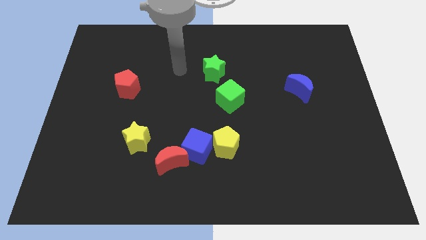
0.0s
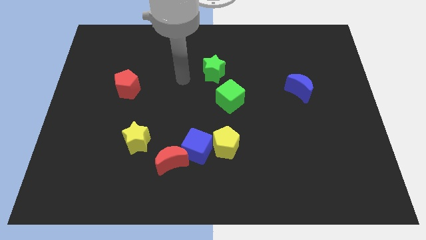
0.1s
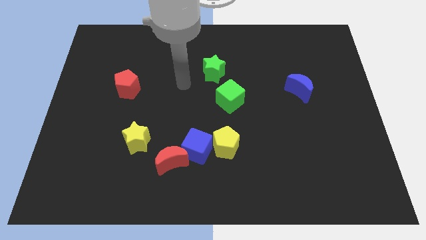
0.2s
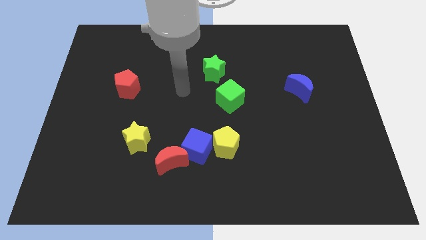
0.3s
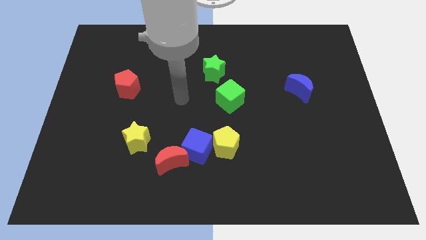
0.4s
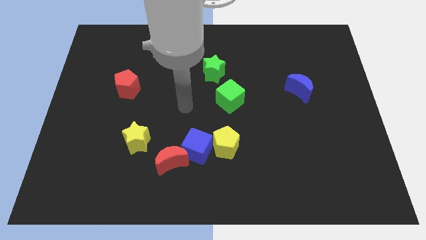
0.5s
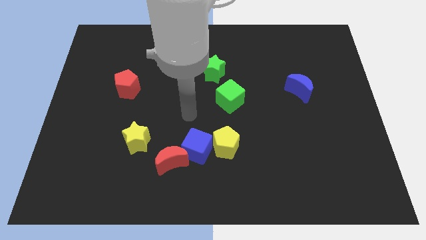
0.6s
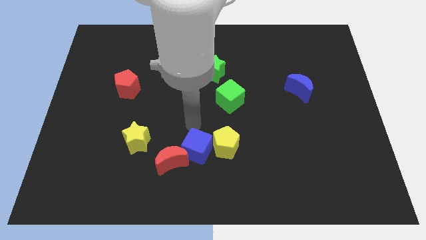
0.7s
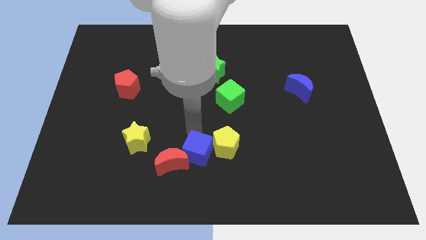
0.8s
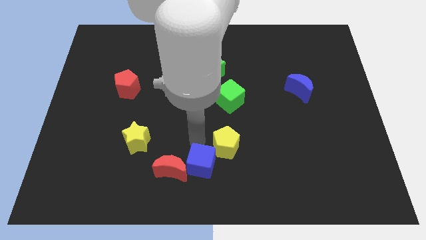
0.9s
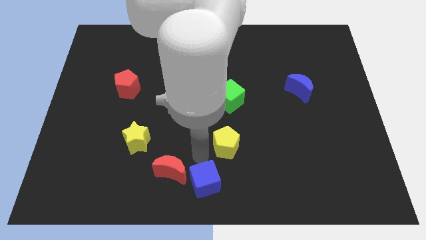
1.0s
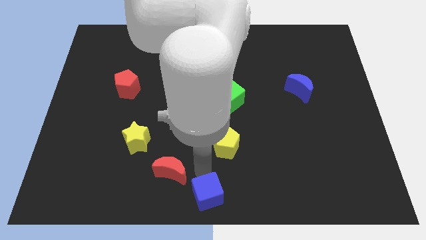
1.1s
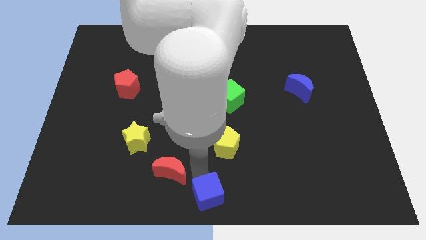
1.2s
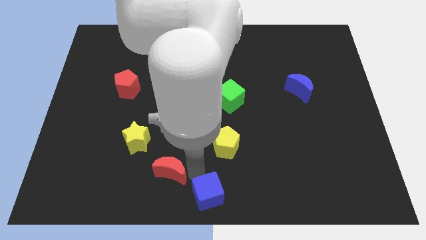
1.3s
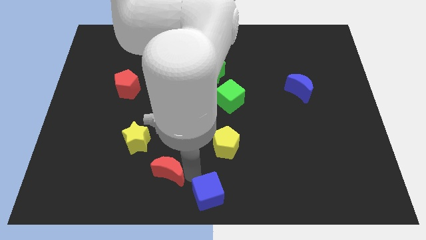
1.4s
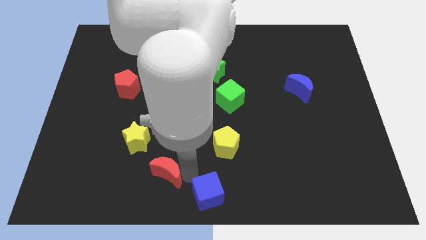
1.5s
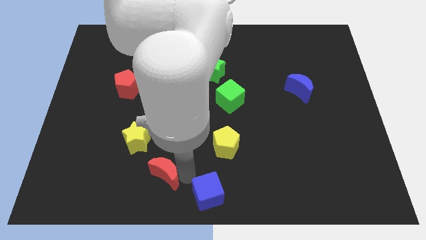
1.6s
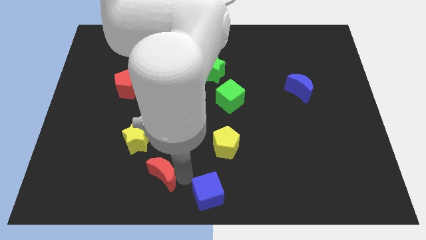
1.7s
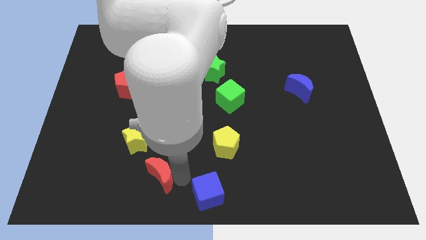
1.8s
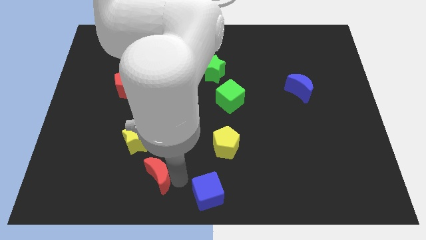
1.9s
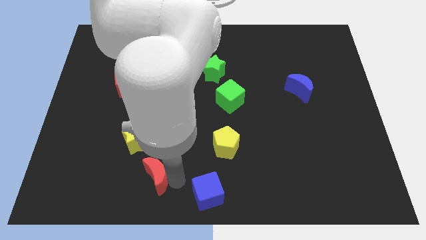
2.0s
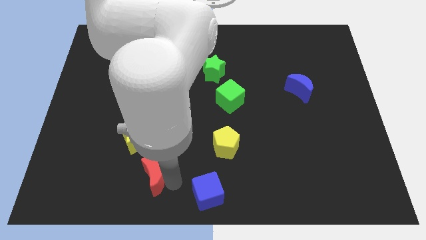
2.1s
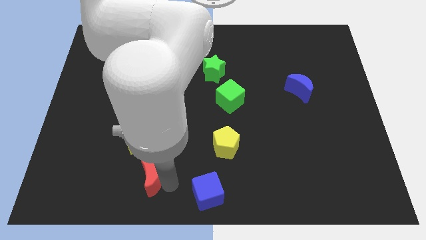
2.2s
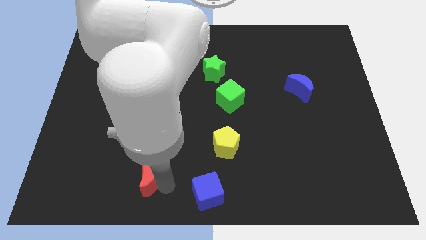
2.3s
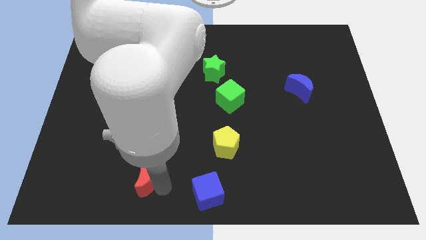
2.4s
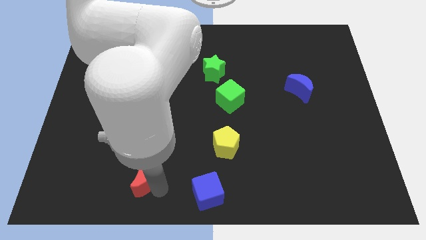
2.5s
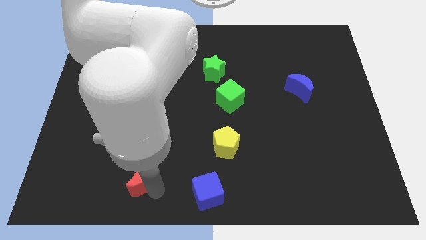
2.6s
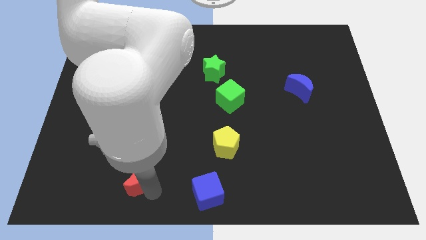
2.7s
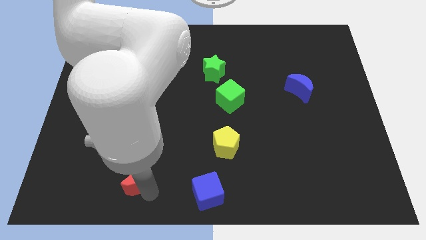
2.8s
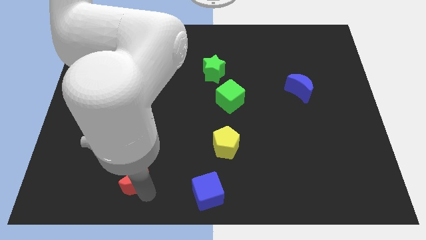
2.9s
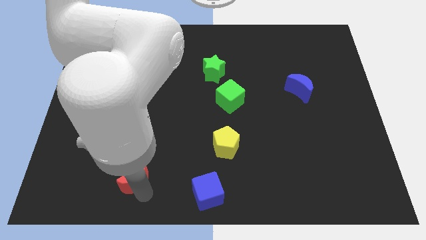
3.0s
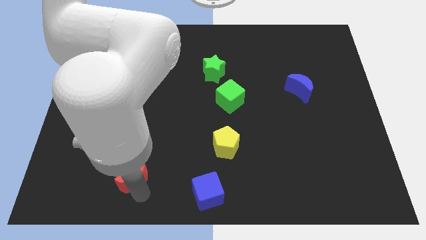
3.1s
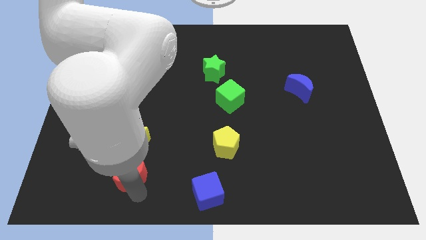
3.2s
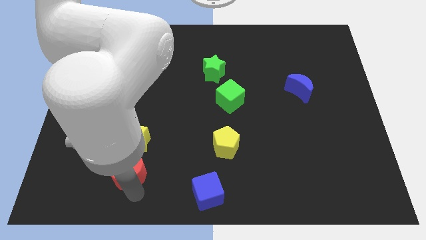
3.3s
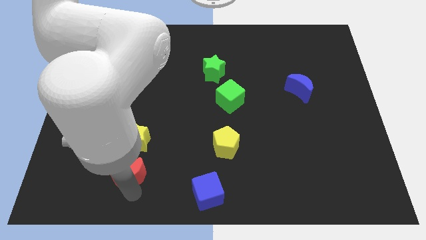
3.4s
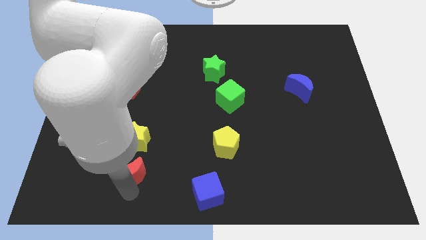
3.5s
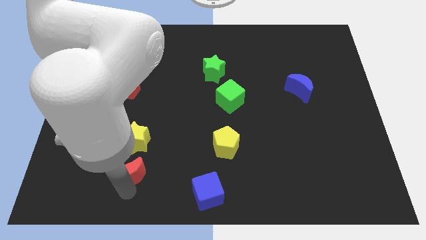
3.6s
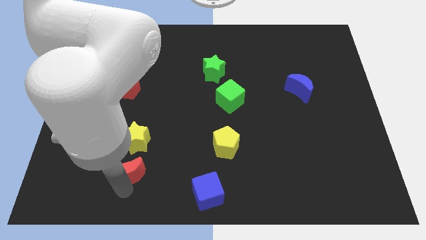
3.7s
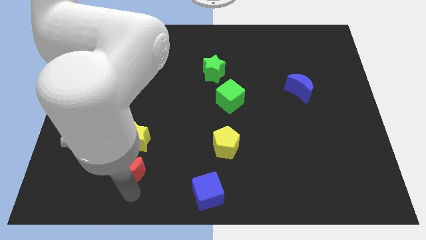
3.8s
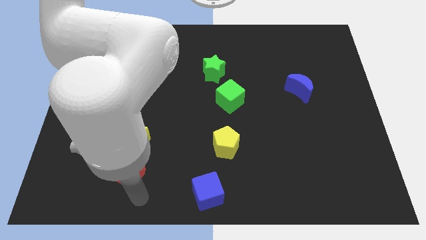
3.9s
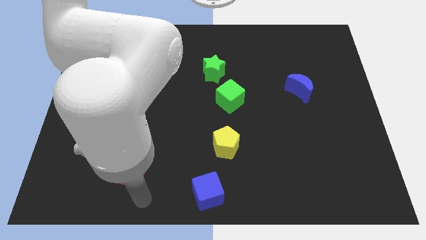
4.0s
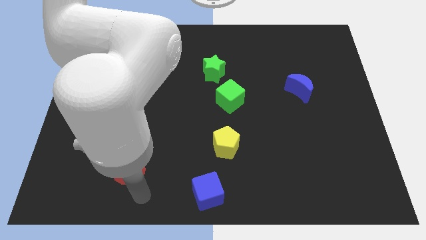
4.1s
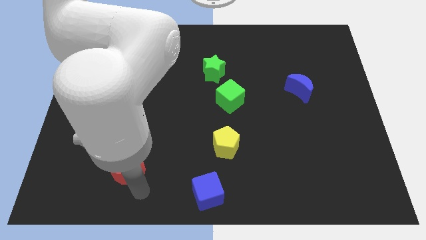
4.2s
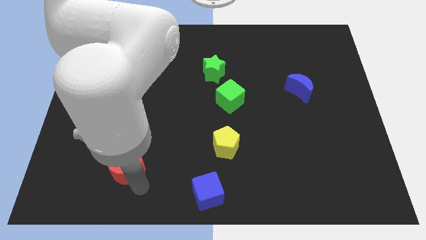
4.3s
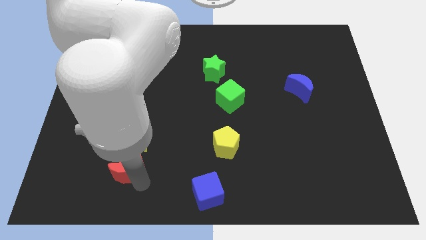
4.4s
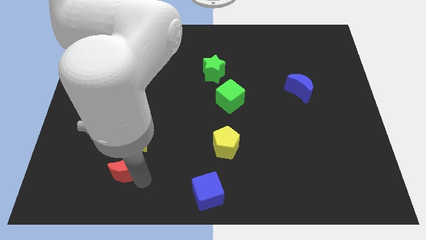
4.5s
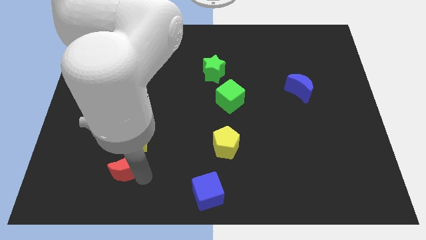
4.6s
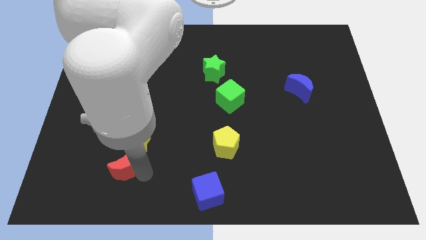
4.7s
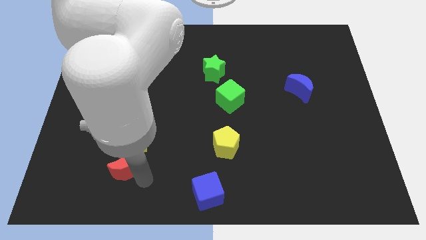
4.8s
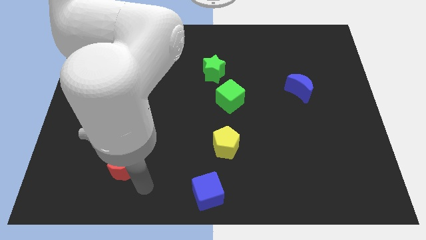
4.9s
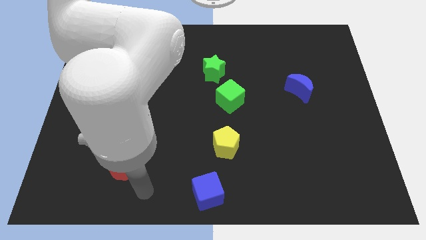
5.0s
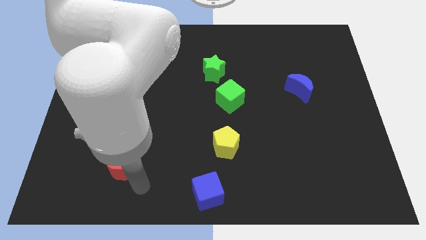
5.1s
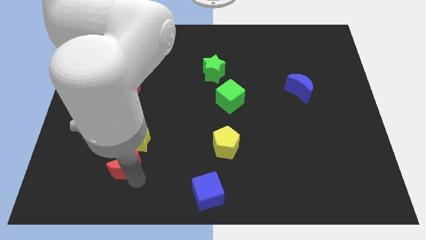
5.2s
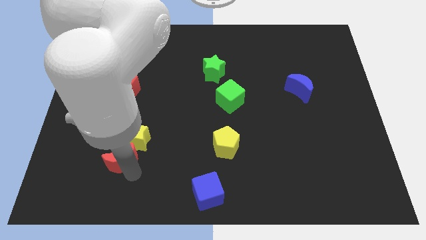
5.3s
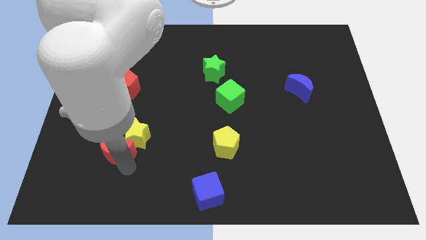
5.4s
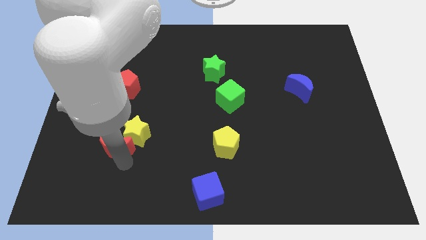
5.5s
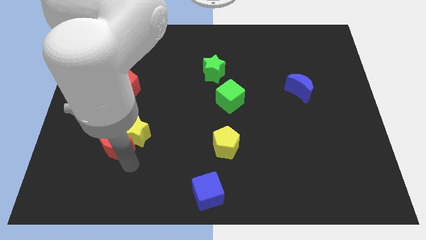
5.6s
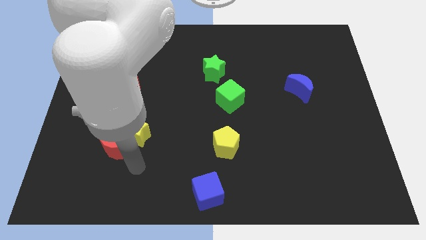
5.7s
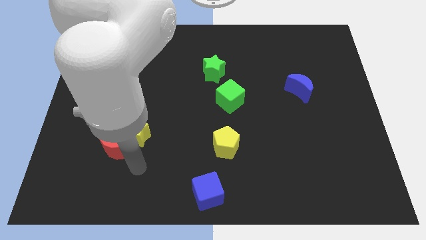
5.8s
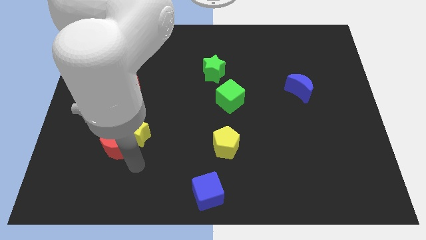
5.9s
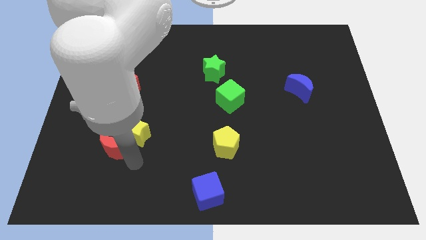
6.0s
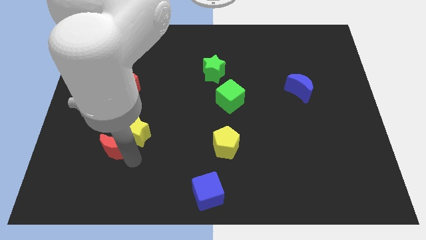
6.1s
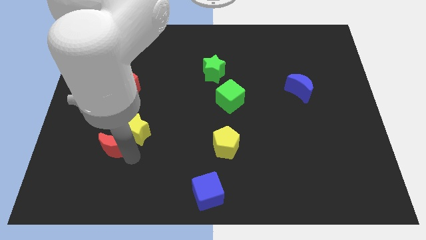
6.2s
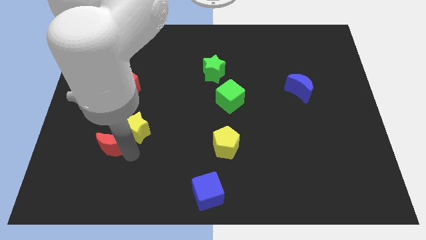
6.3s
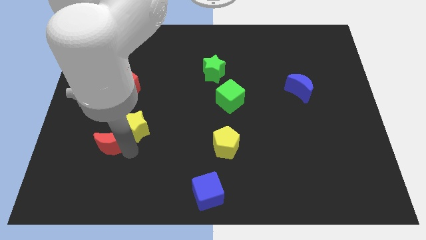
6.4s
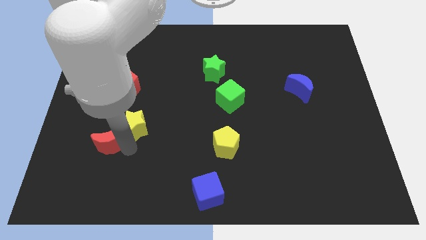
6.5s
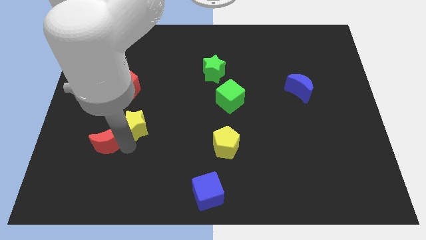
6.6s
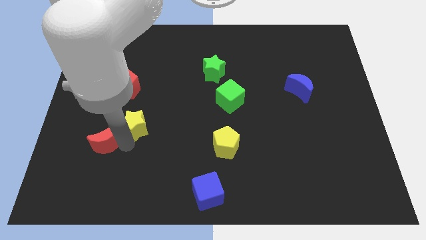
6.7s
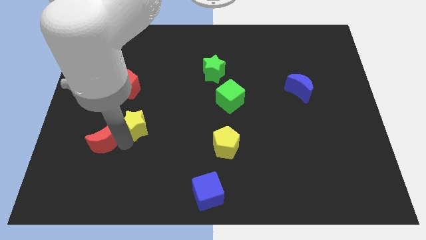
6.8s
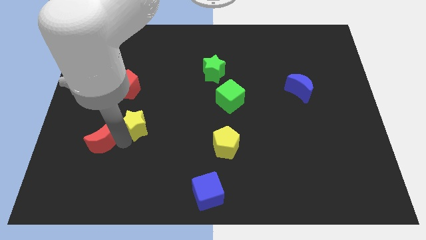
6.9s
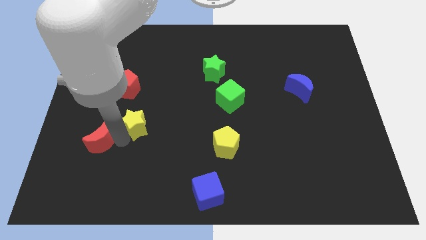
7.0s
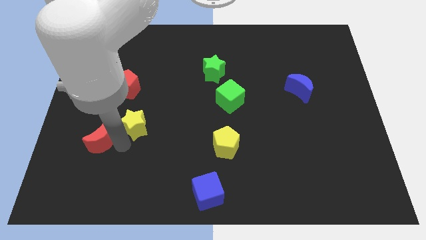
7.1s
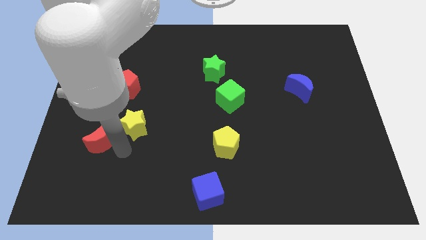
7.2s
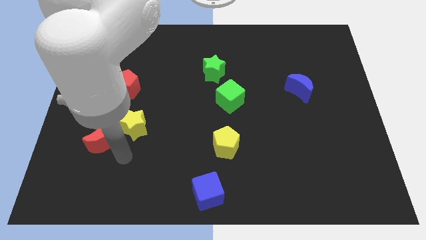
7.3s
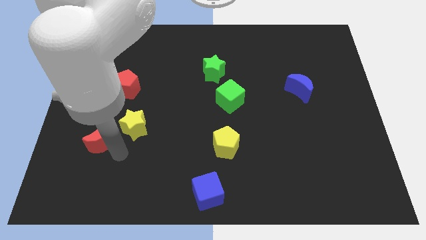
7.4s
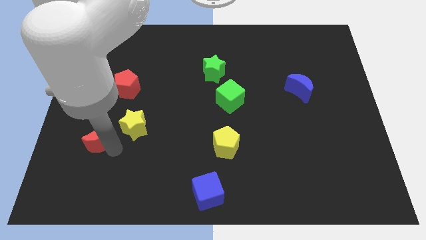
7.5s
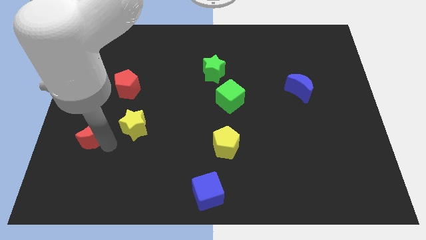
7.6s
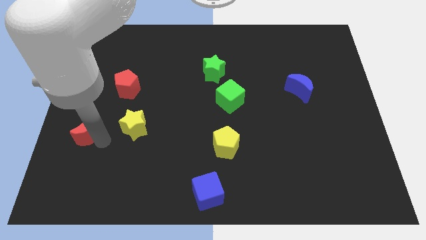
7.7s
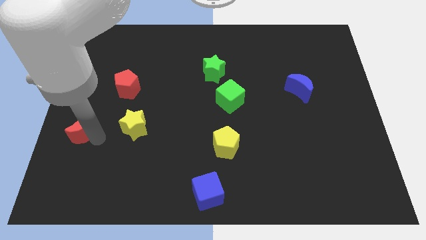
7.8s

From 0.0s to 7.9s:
put the red moon to the center left
